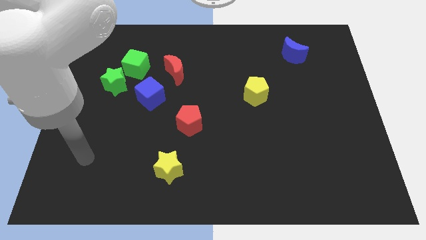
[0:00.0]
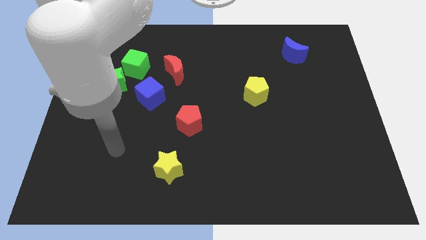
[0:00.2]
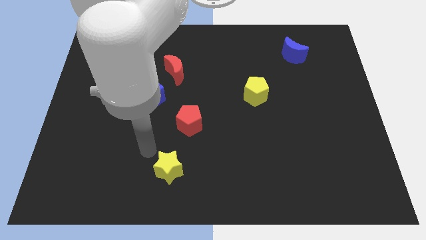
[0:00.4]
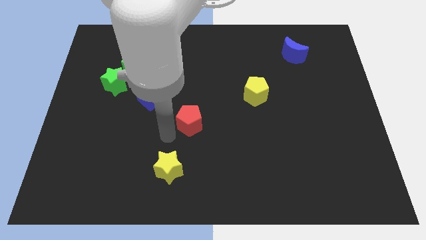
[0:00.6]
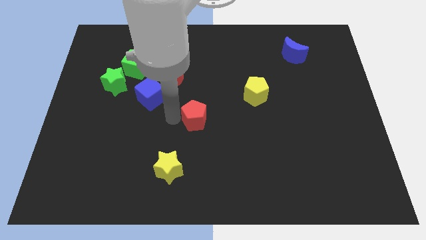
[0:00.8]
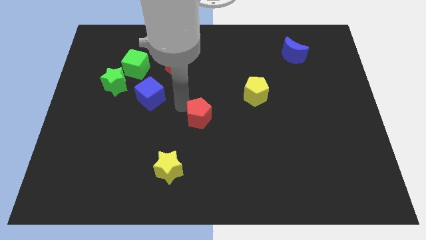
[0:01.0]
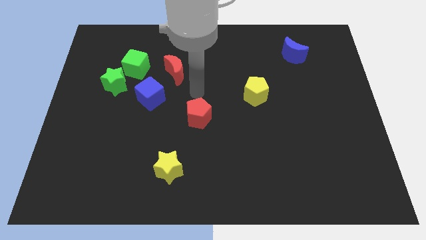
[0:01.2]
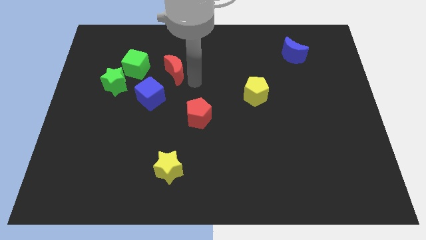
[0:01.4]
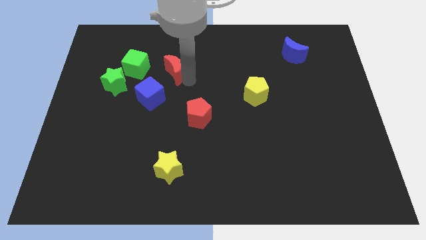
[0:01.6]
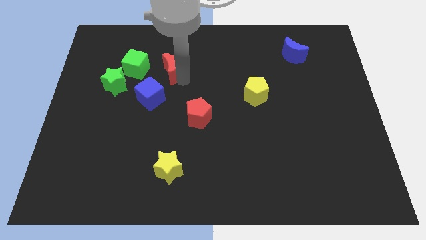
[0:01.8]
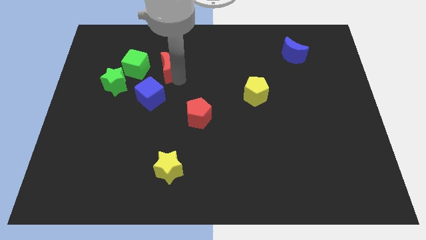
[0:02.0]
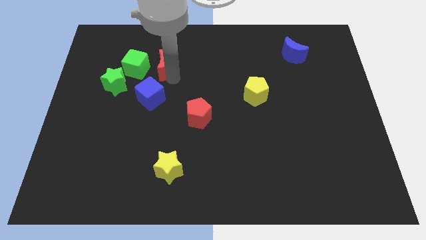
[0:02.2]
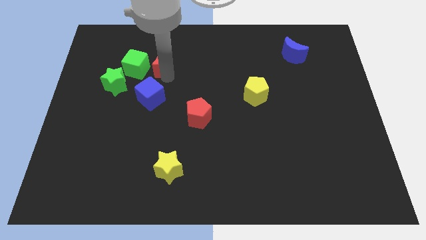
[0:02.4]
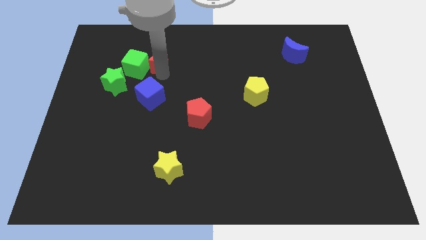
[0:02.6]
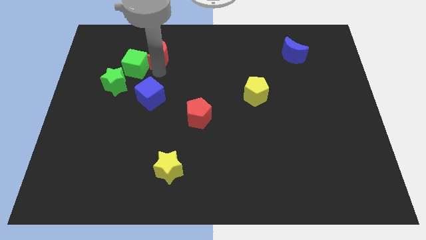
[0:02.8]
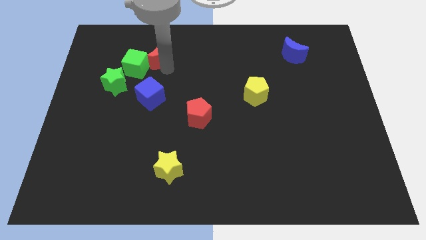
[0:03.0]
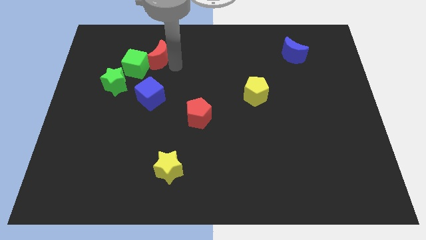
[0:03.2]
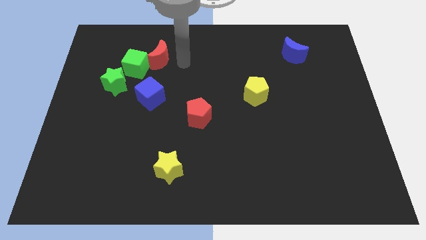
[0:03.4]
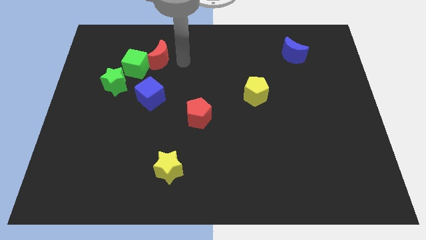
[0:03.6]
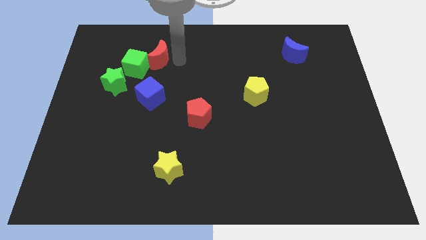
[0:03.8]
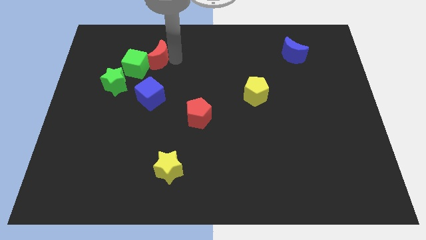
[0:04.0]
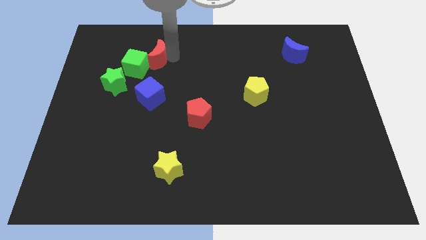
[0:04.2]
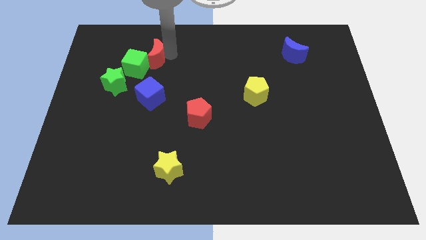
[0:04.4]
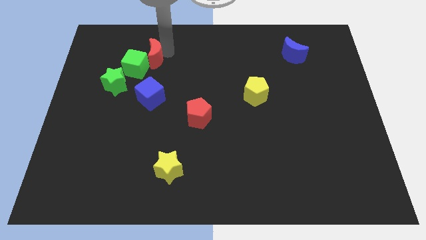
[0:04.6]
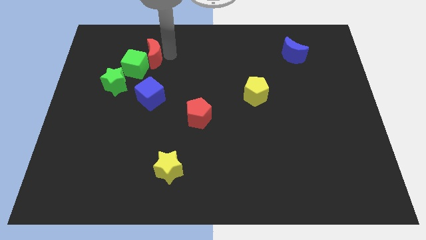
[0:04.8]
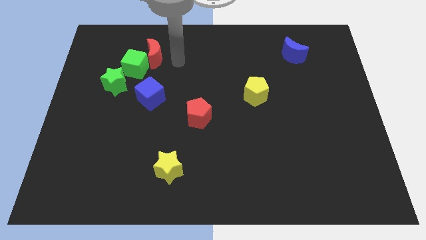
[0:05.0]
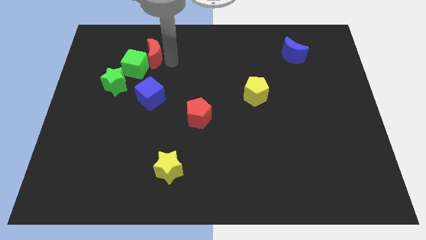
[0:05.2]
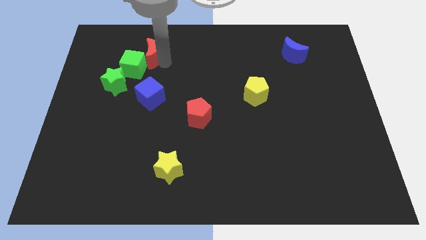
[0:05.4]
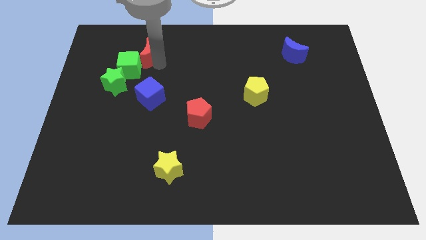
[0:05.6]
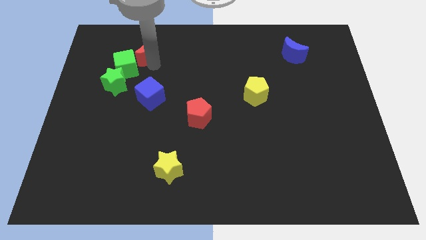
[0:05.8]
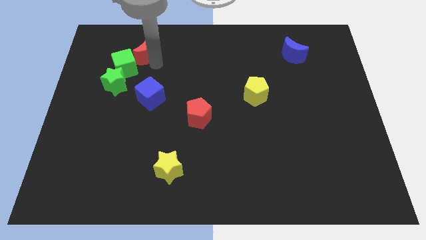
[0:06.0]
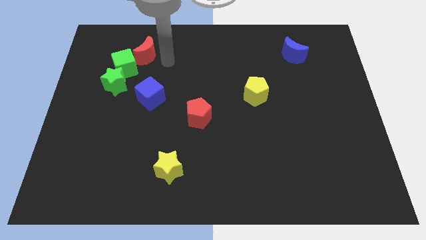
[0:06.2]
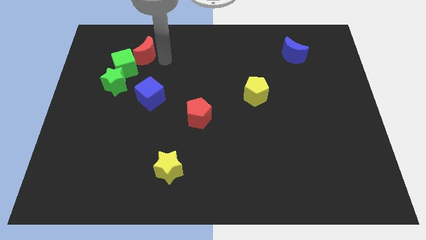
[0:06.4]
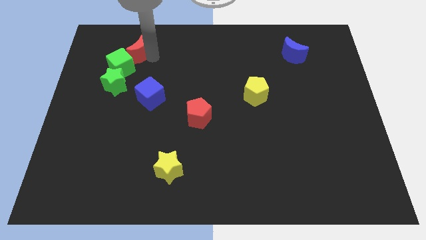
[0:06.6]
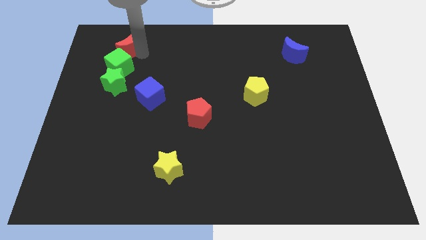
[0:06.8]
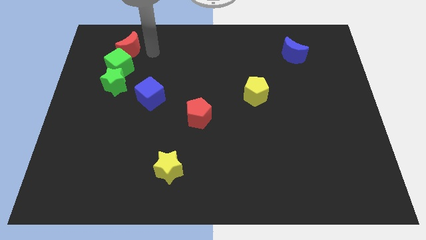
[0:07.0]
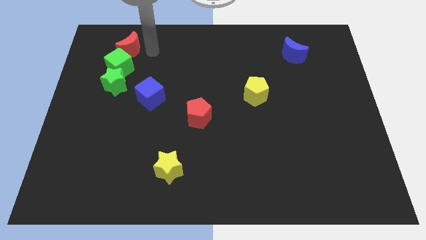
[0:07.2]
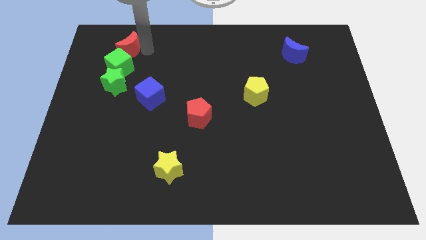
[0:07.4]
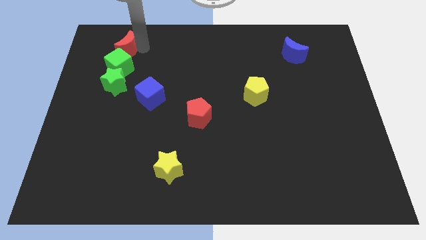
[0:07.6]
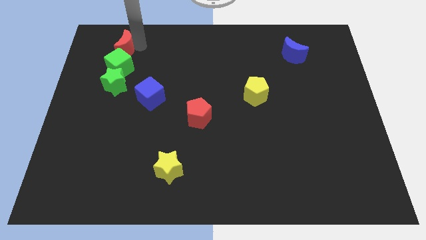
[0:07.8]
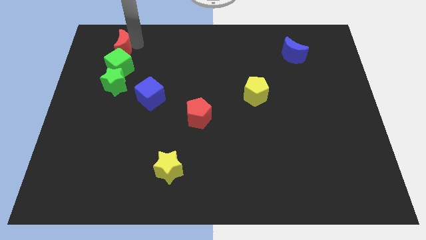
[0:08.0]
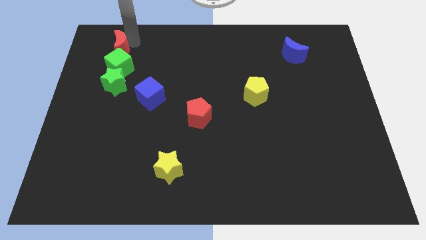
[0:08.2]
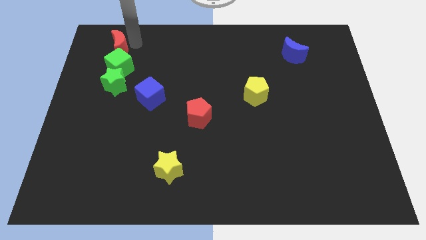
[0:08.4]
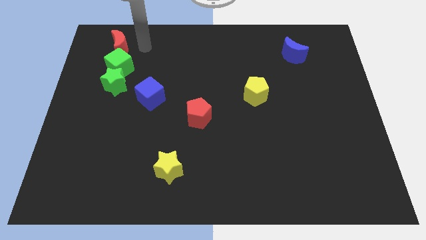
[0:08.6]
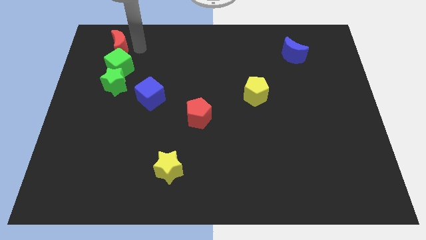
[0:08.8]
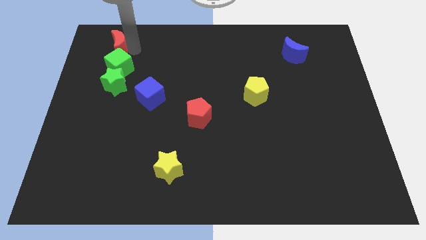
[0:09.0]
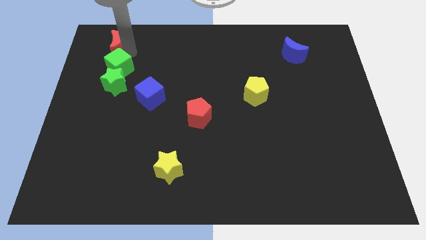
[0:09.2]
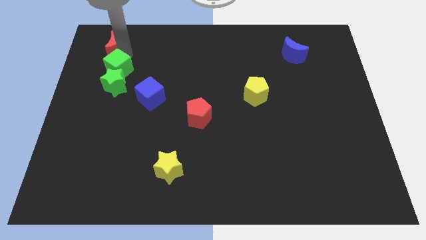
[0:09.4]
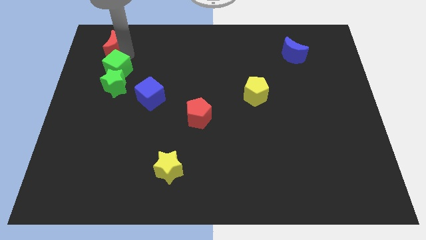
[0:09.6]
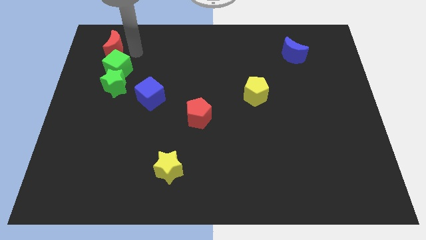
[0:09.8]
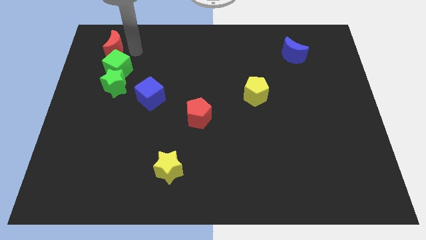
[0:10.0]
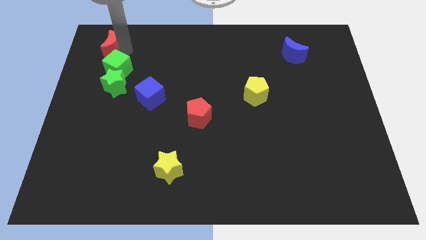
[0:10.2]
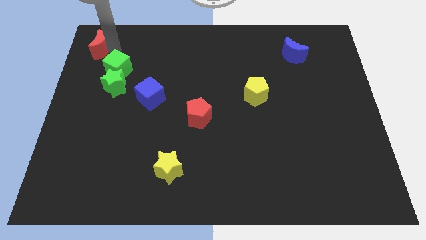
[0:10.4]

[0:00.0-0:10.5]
slide the red moon to the upper left corner

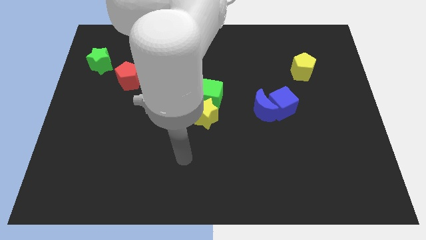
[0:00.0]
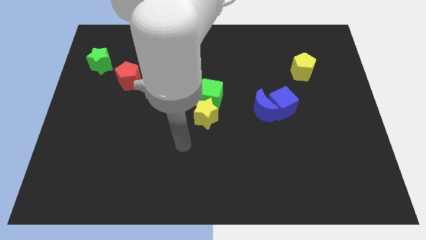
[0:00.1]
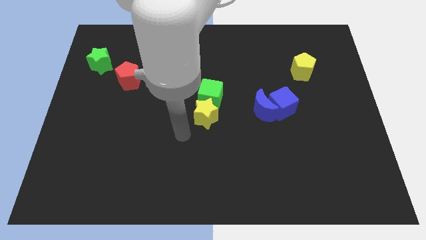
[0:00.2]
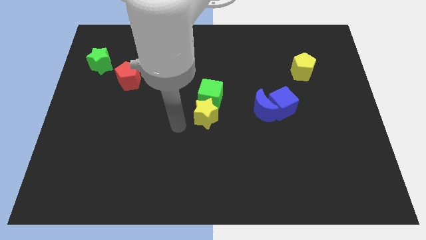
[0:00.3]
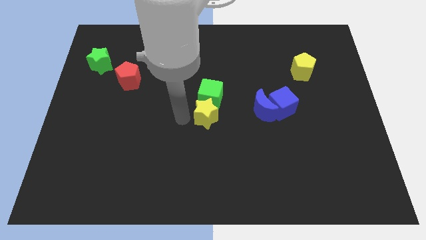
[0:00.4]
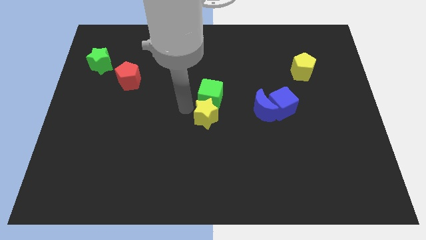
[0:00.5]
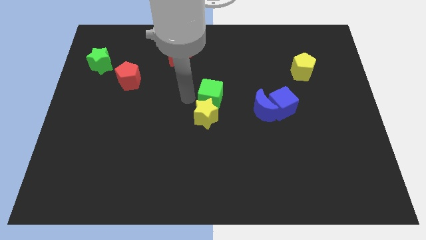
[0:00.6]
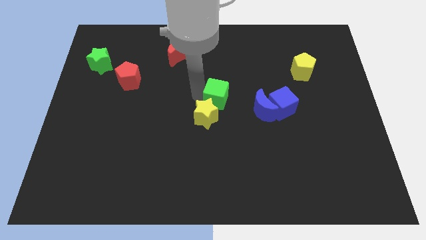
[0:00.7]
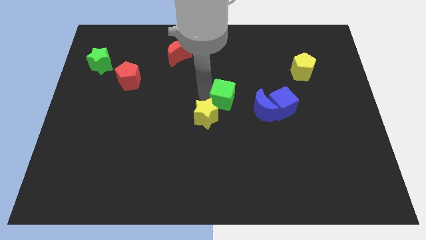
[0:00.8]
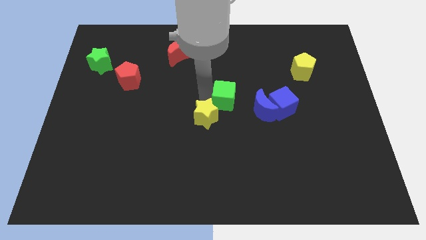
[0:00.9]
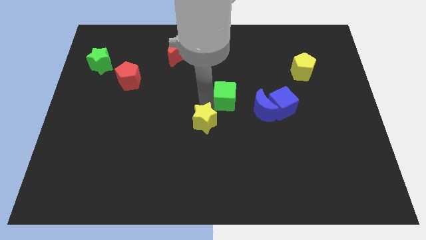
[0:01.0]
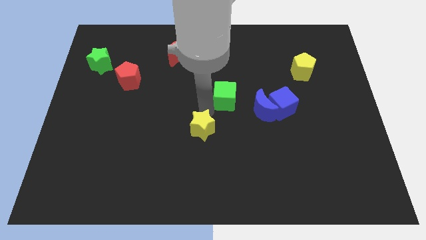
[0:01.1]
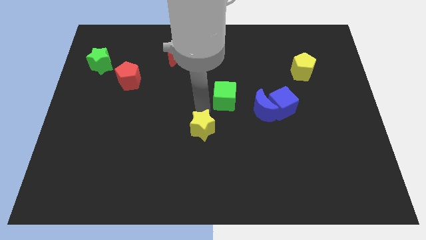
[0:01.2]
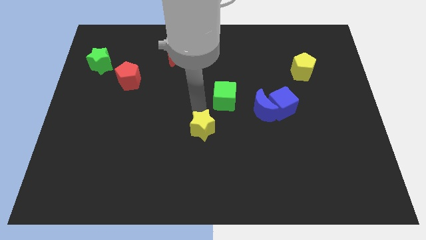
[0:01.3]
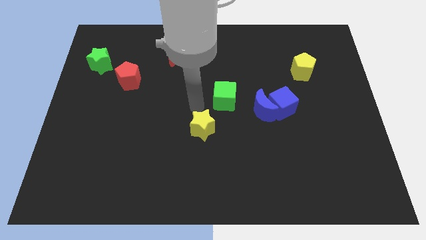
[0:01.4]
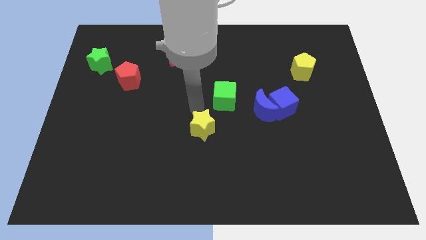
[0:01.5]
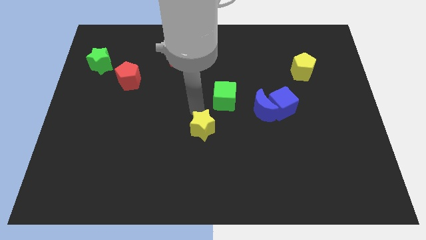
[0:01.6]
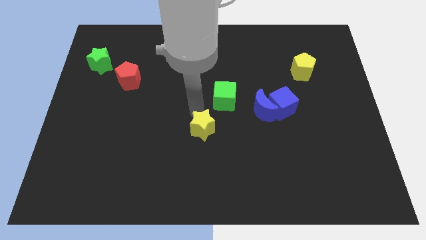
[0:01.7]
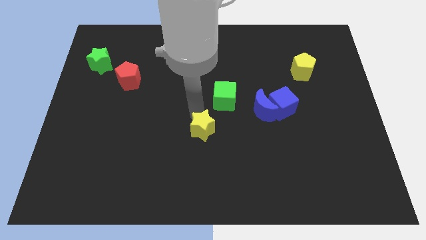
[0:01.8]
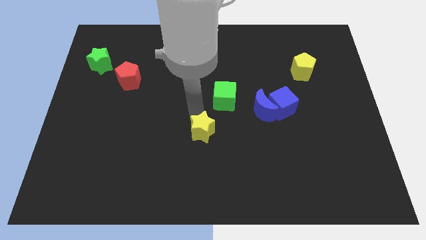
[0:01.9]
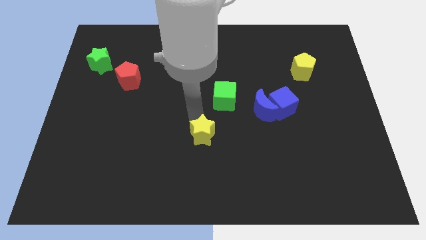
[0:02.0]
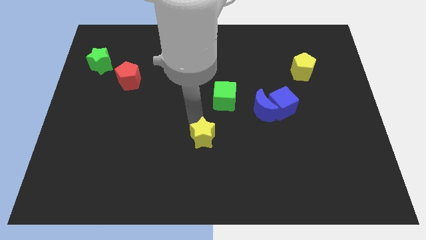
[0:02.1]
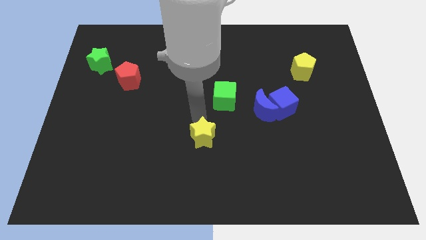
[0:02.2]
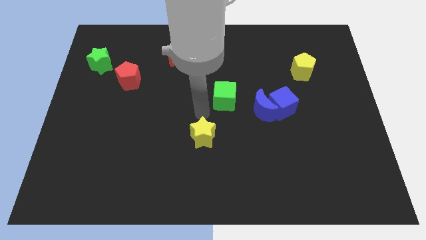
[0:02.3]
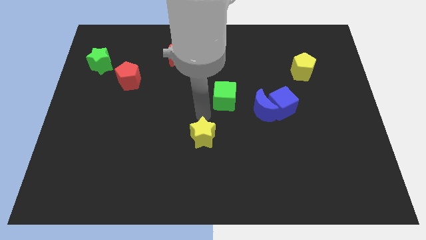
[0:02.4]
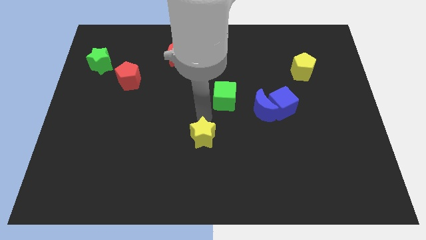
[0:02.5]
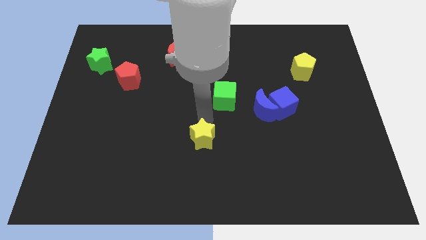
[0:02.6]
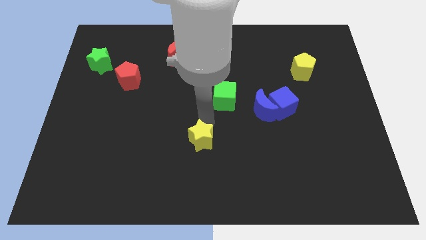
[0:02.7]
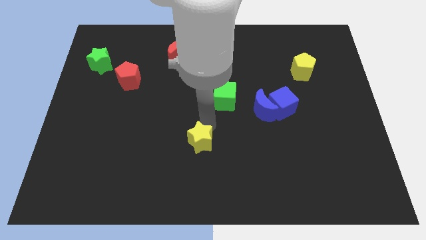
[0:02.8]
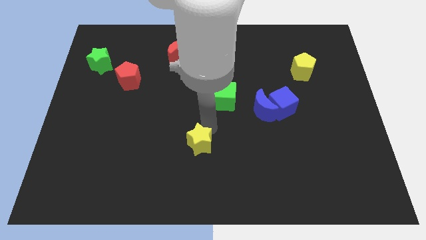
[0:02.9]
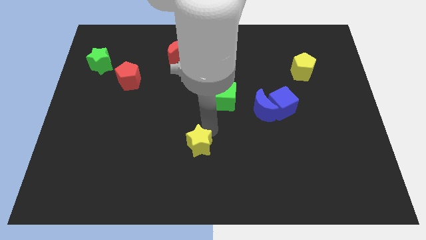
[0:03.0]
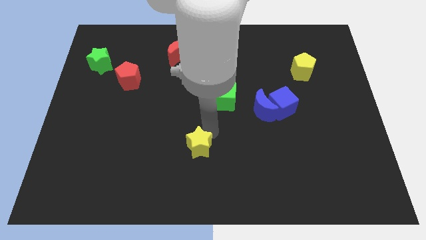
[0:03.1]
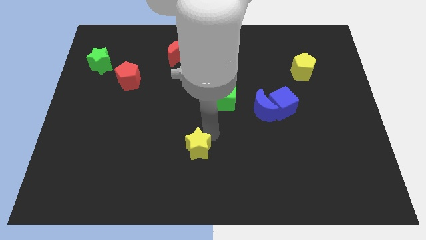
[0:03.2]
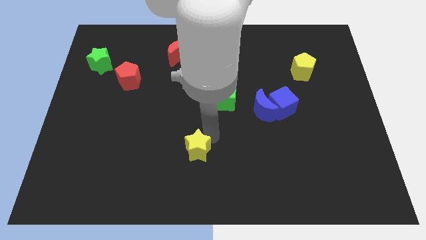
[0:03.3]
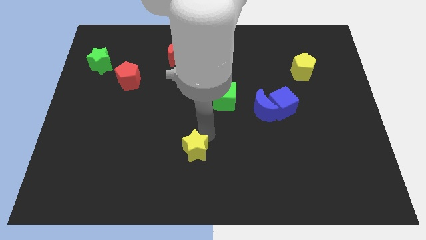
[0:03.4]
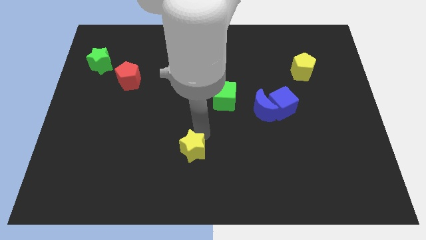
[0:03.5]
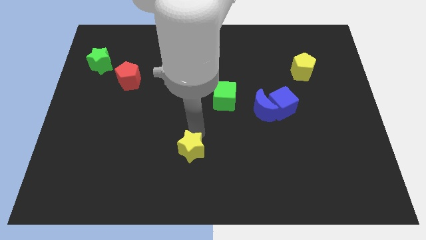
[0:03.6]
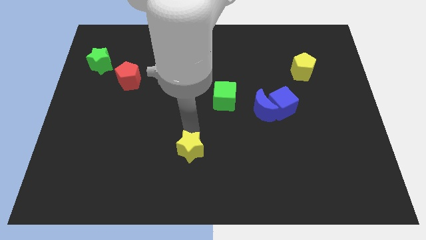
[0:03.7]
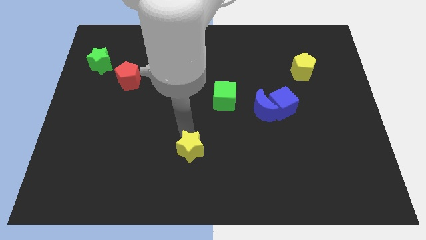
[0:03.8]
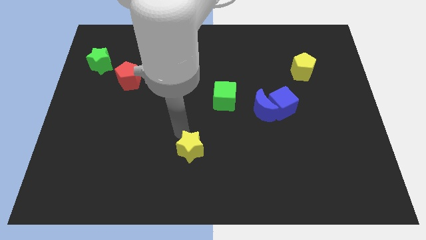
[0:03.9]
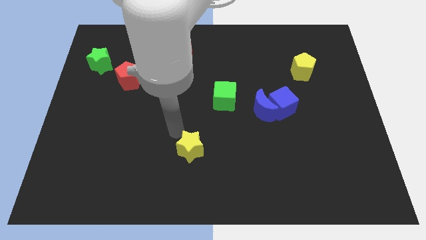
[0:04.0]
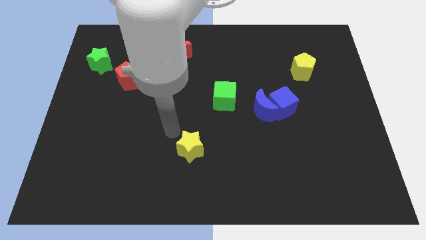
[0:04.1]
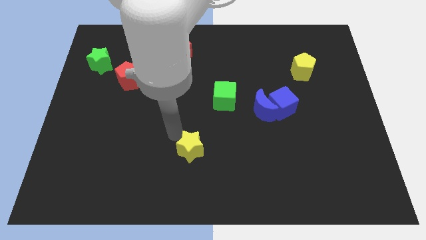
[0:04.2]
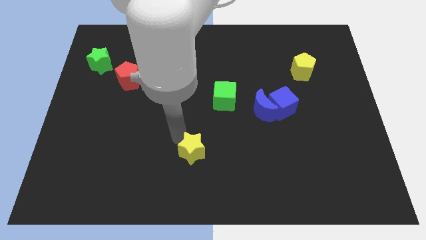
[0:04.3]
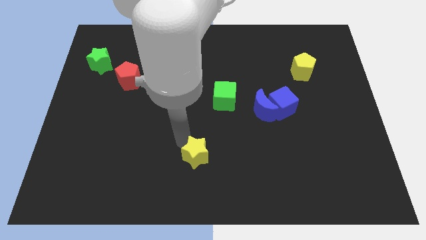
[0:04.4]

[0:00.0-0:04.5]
put the yellow star to the bottom
